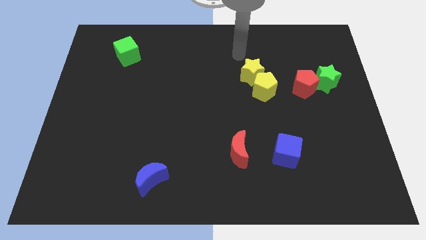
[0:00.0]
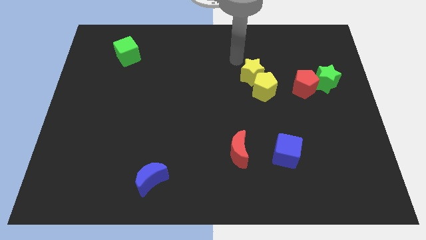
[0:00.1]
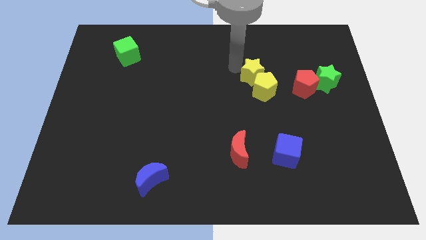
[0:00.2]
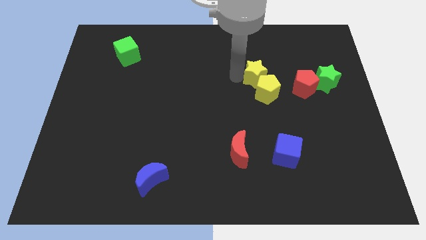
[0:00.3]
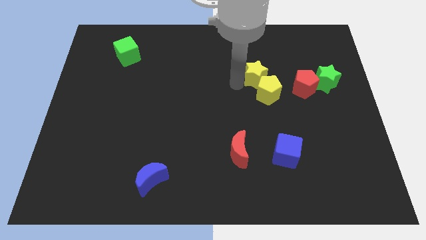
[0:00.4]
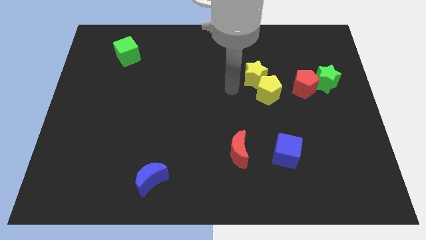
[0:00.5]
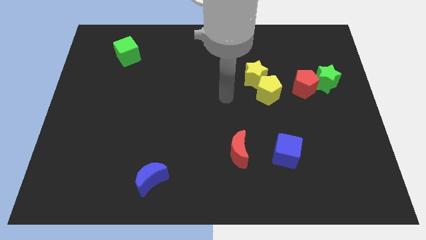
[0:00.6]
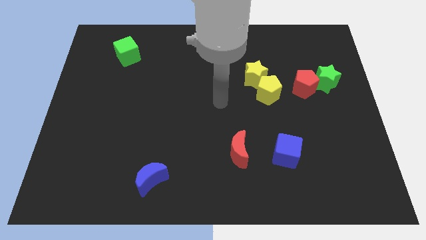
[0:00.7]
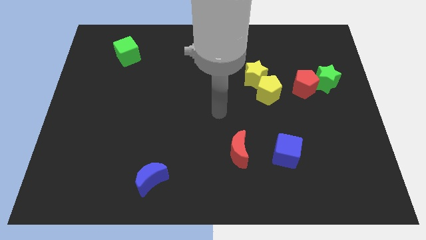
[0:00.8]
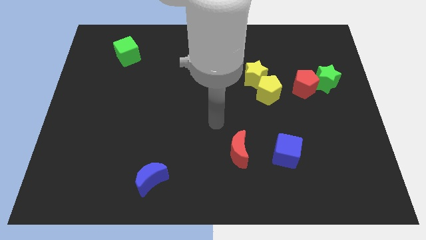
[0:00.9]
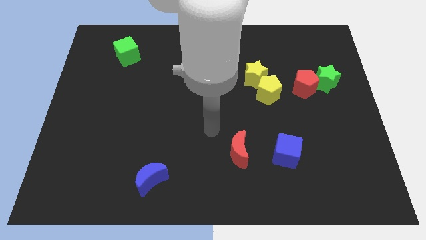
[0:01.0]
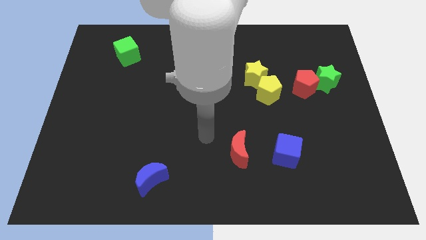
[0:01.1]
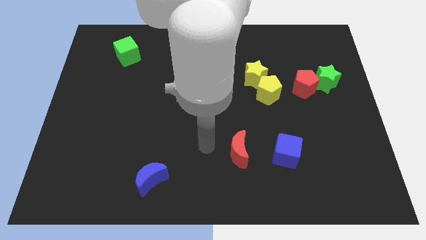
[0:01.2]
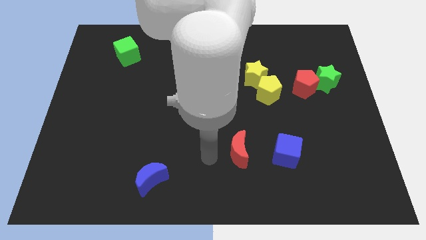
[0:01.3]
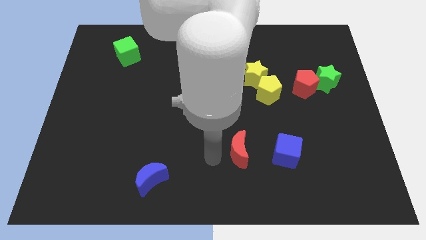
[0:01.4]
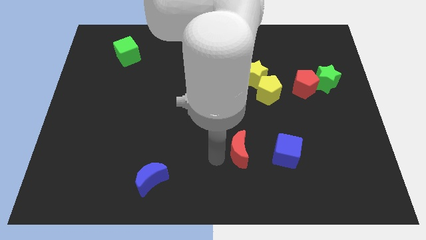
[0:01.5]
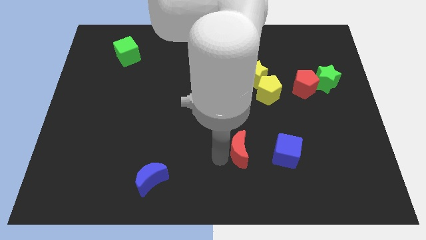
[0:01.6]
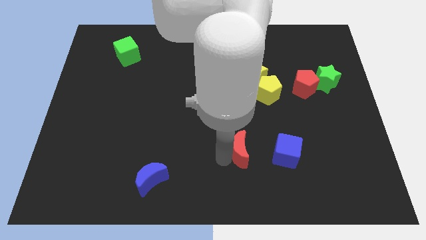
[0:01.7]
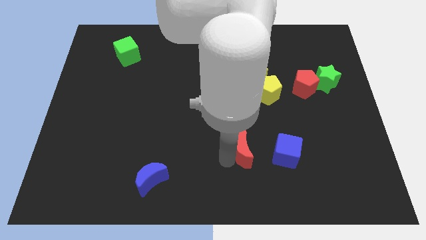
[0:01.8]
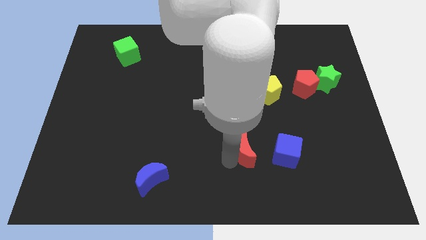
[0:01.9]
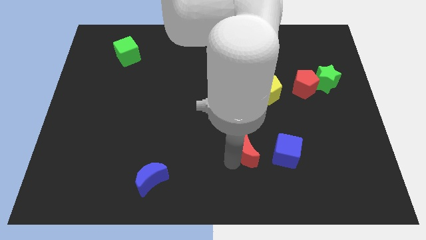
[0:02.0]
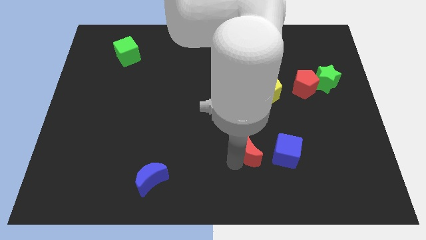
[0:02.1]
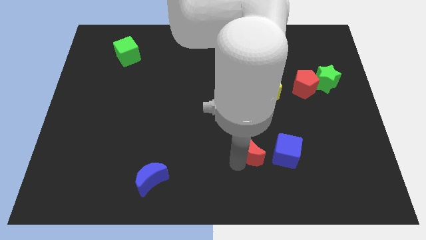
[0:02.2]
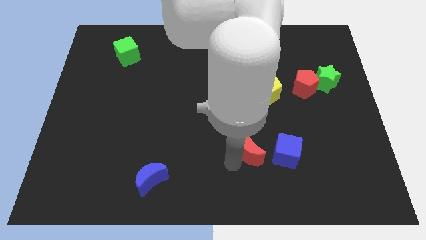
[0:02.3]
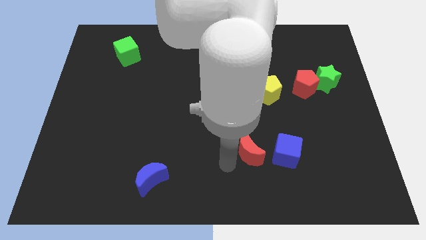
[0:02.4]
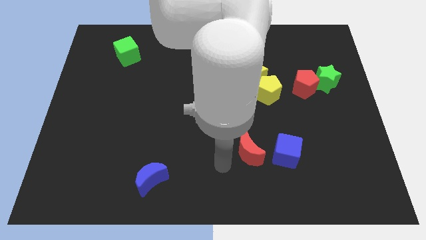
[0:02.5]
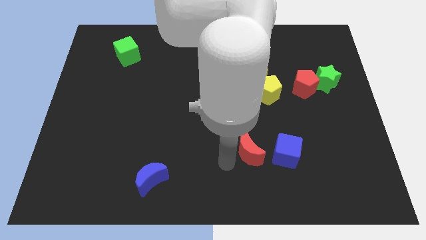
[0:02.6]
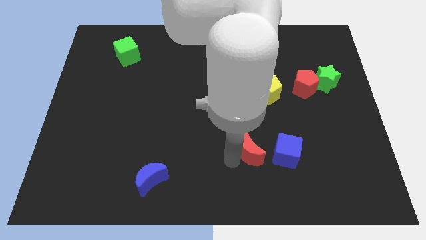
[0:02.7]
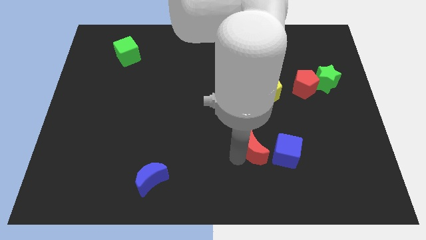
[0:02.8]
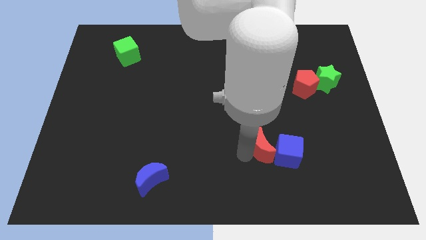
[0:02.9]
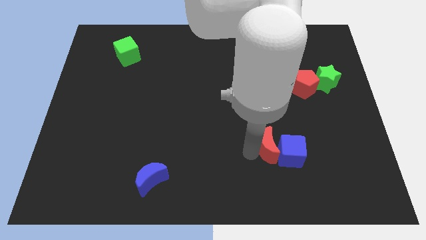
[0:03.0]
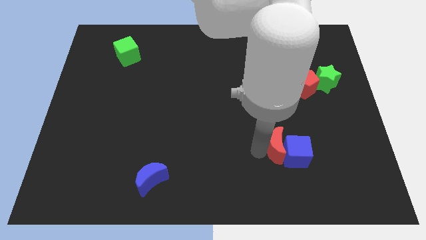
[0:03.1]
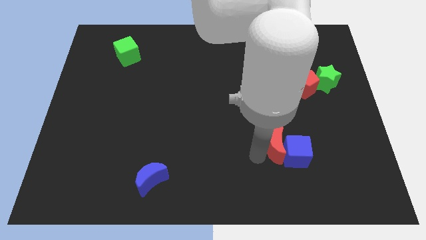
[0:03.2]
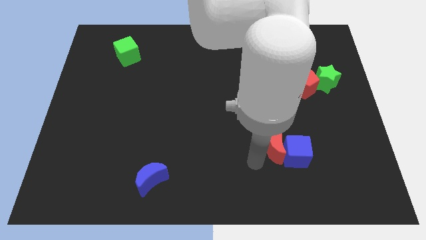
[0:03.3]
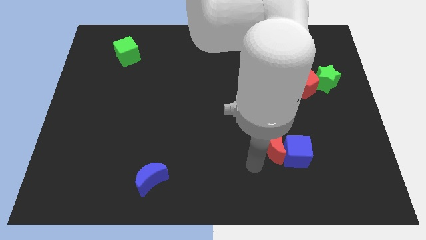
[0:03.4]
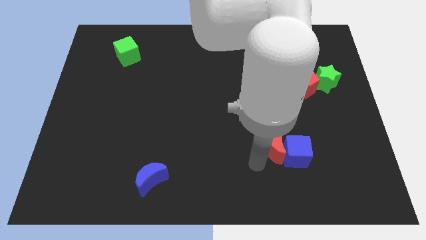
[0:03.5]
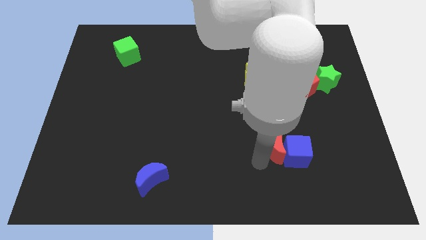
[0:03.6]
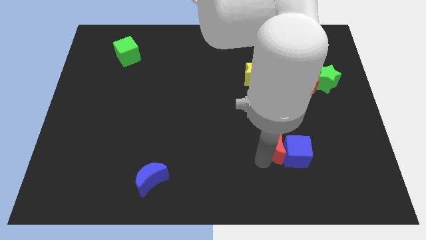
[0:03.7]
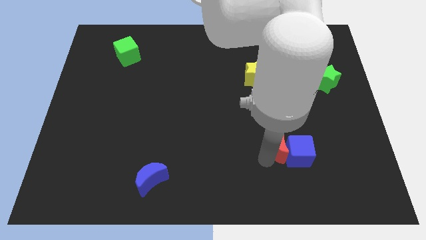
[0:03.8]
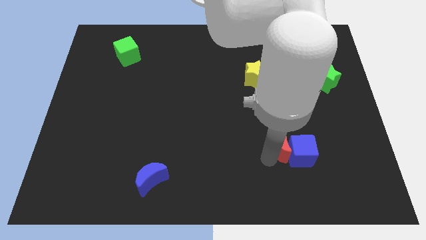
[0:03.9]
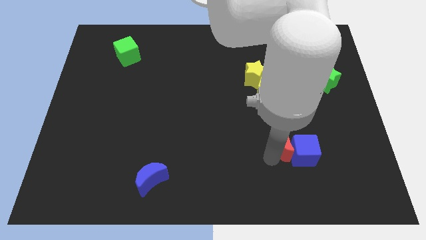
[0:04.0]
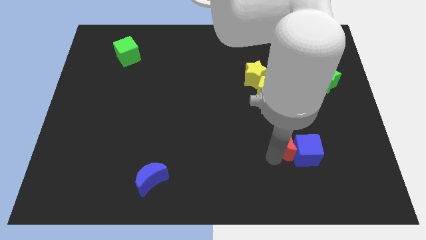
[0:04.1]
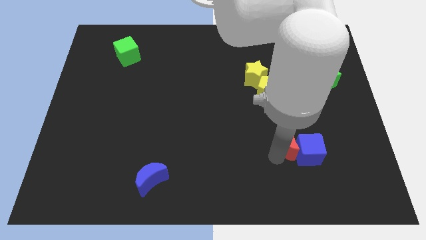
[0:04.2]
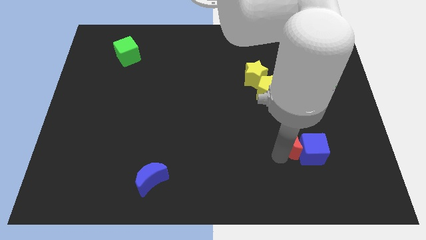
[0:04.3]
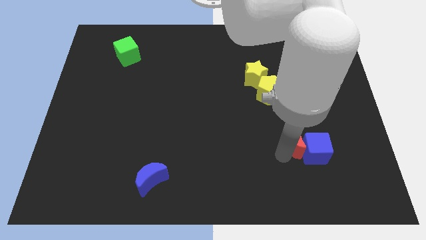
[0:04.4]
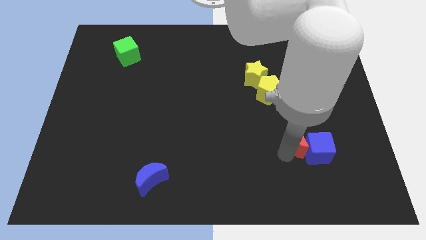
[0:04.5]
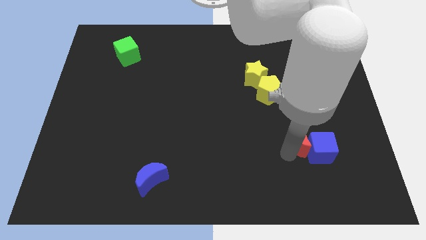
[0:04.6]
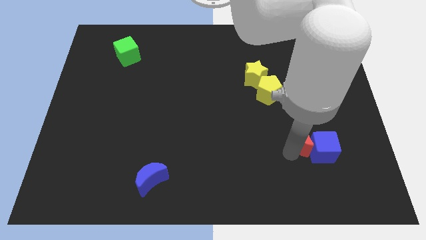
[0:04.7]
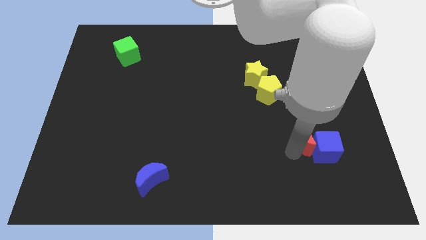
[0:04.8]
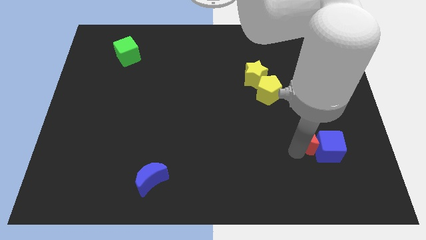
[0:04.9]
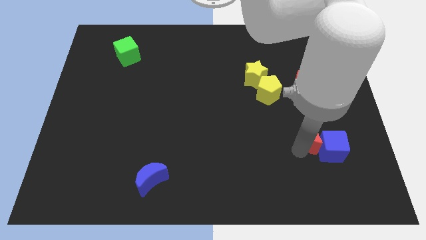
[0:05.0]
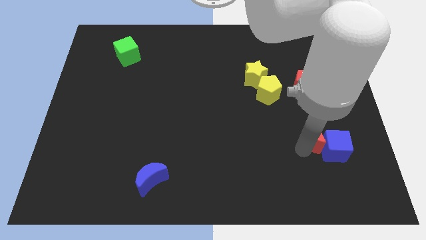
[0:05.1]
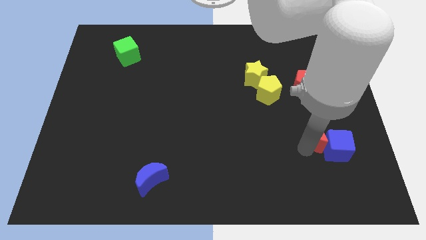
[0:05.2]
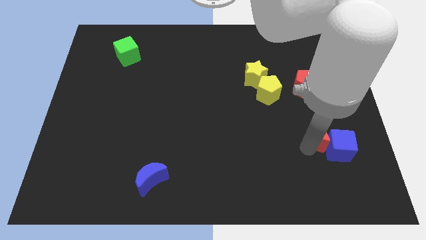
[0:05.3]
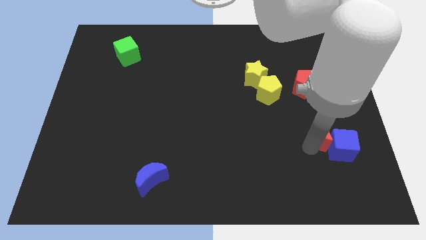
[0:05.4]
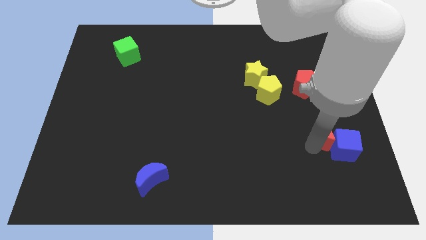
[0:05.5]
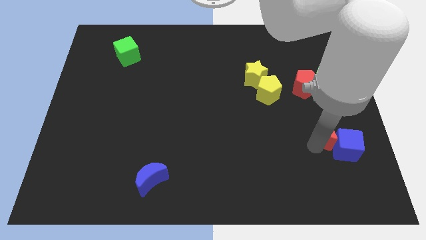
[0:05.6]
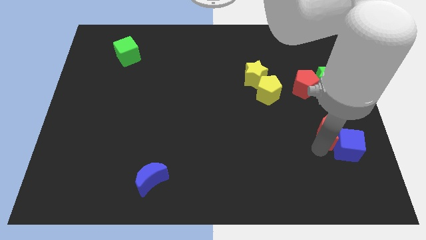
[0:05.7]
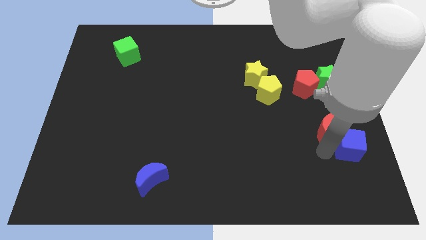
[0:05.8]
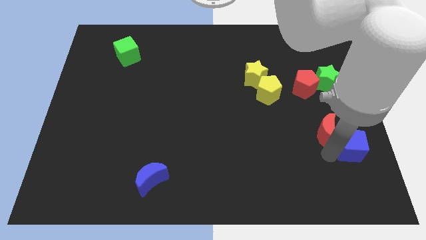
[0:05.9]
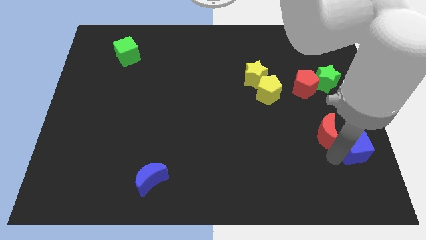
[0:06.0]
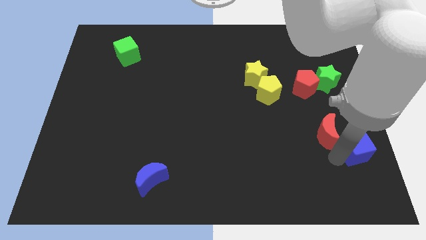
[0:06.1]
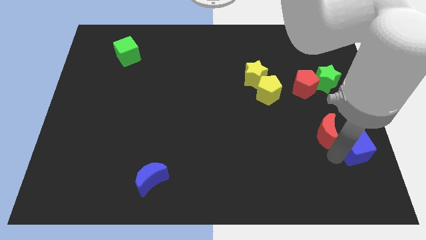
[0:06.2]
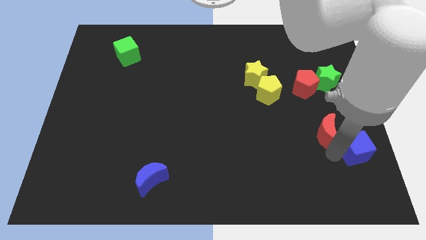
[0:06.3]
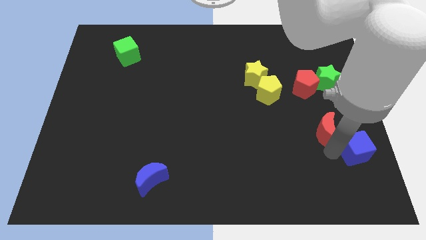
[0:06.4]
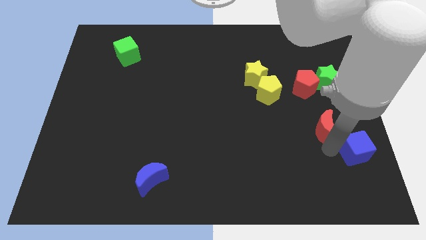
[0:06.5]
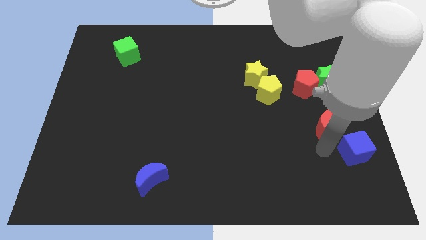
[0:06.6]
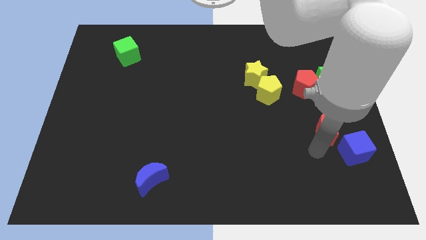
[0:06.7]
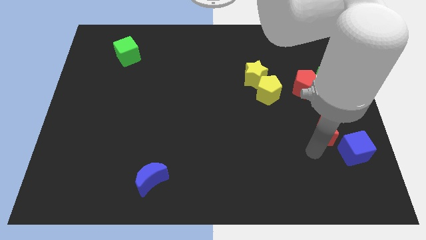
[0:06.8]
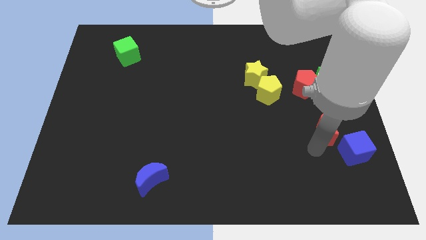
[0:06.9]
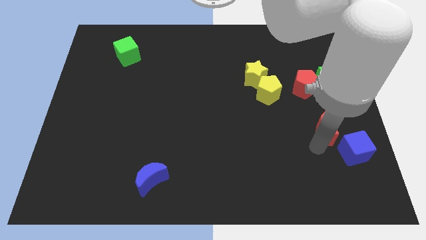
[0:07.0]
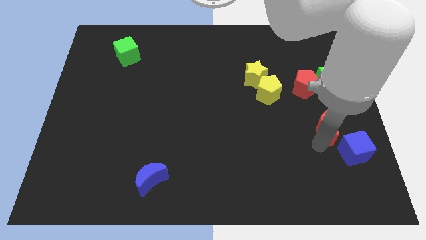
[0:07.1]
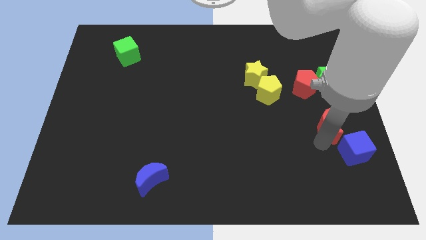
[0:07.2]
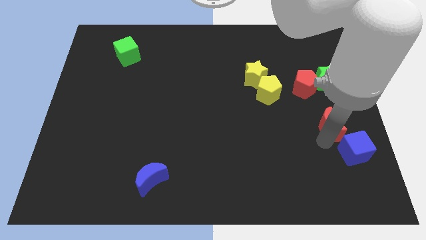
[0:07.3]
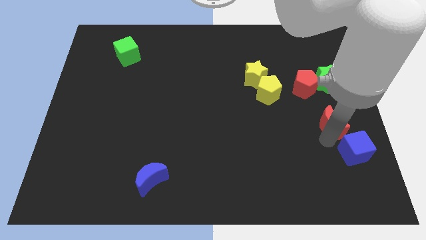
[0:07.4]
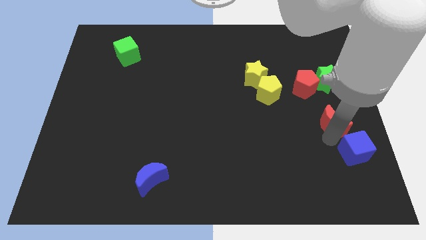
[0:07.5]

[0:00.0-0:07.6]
move the red moon to the right side of the board
